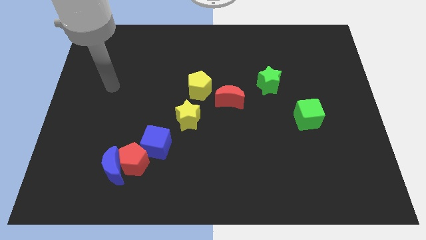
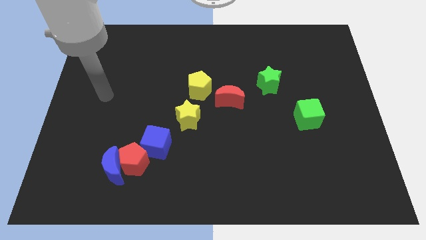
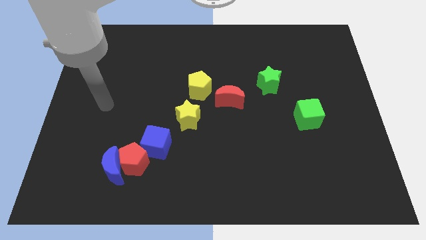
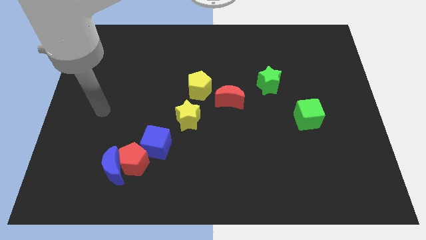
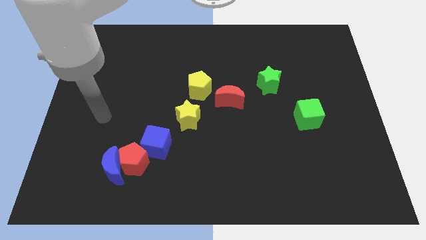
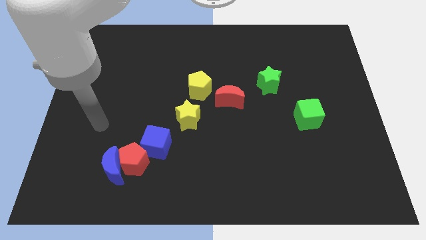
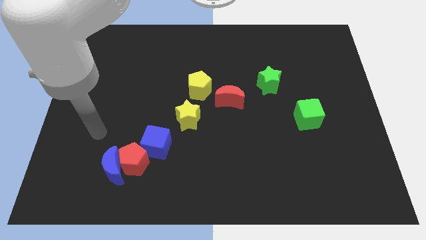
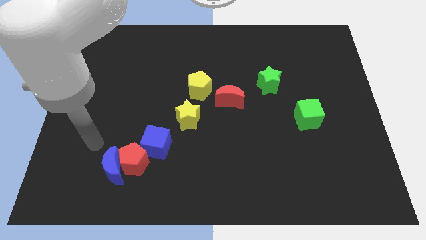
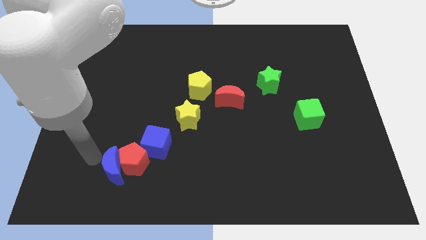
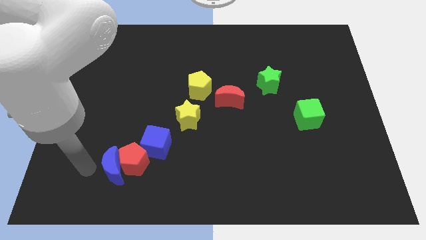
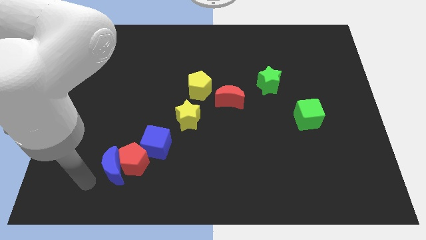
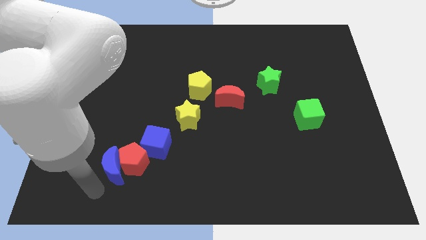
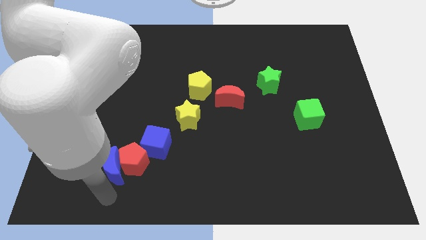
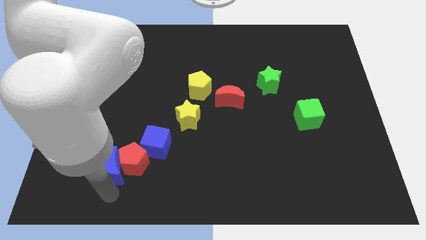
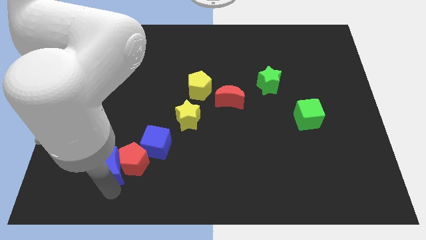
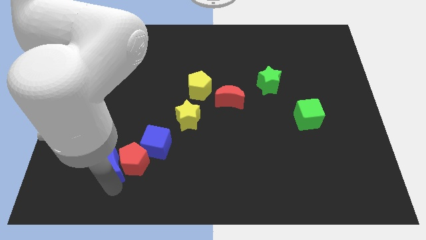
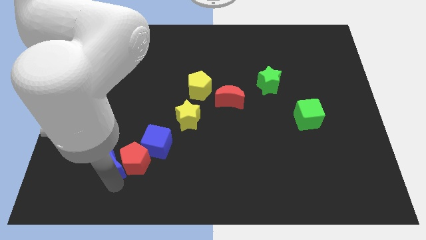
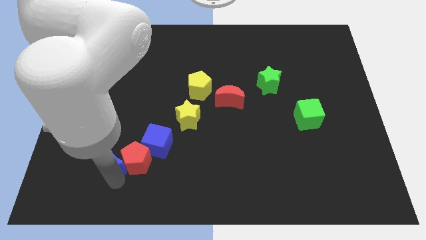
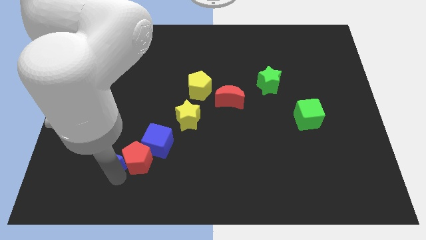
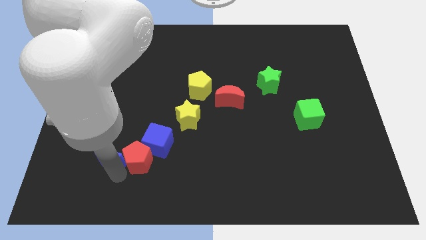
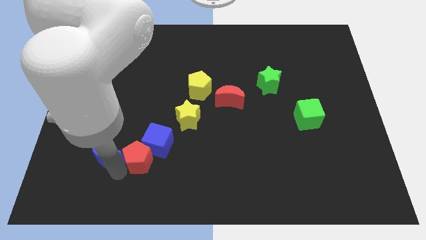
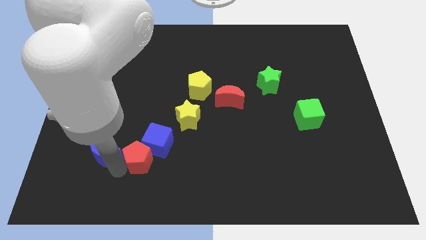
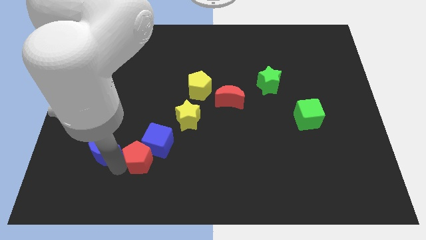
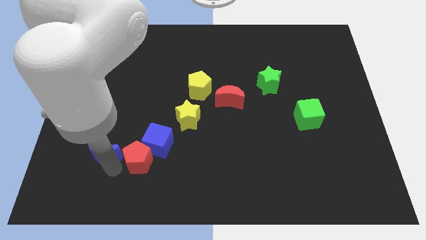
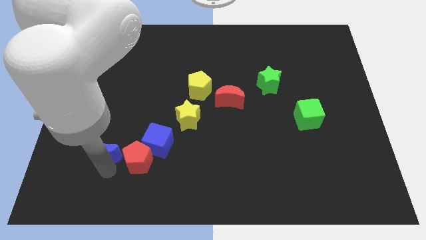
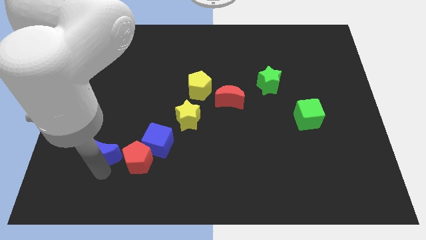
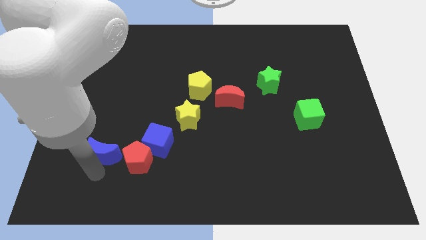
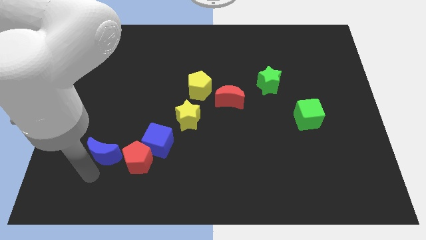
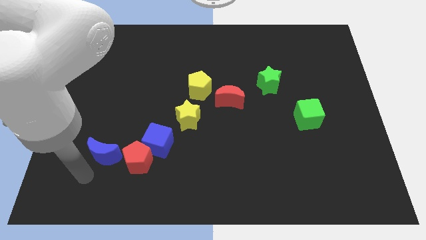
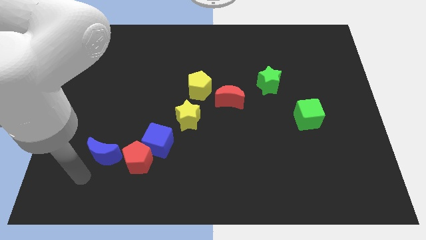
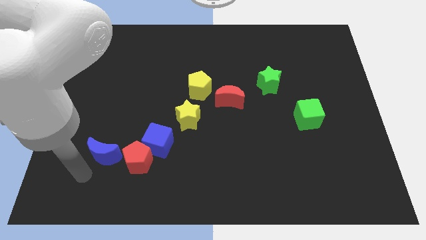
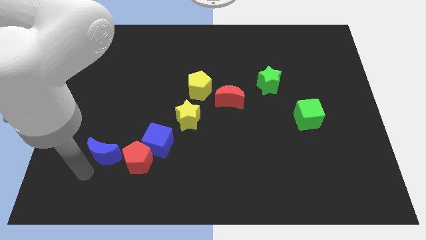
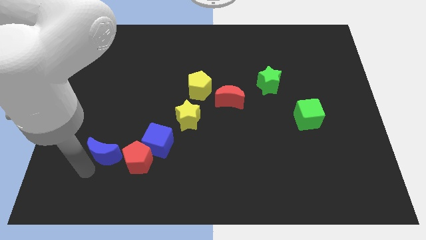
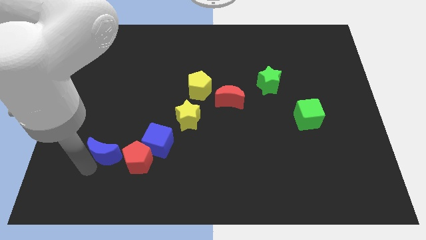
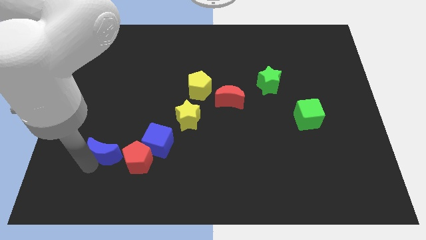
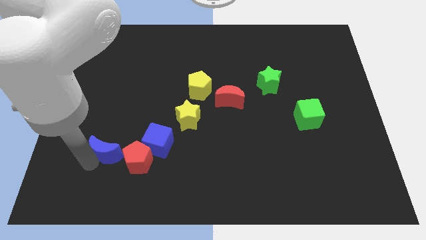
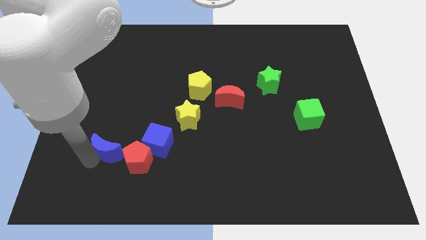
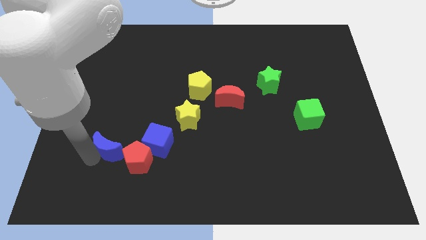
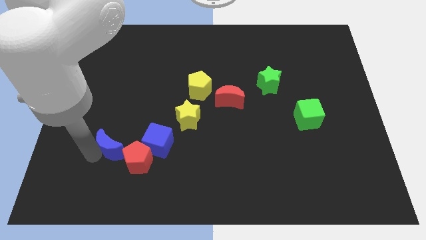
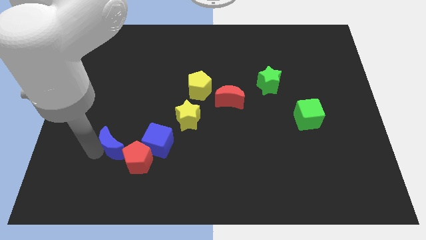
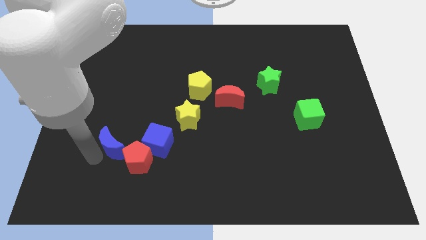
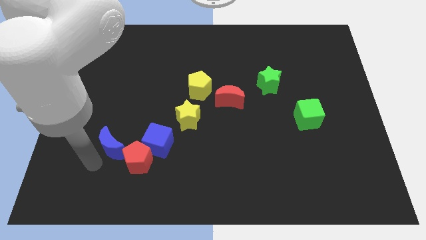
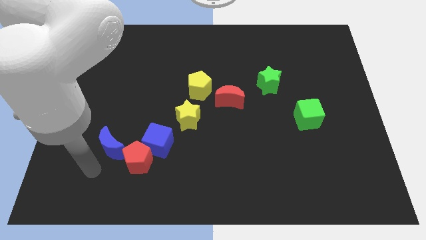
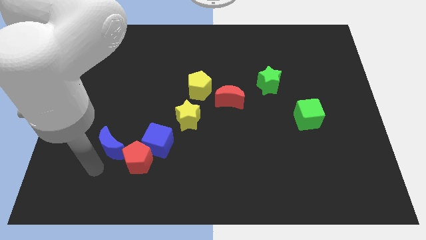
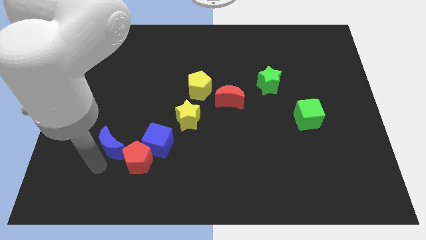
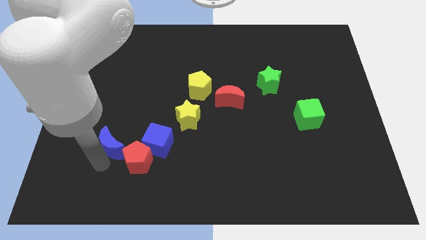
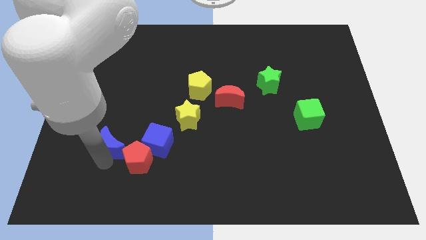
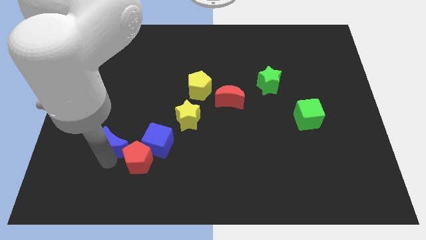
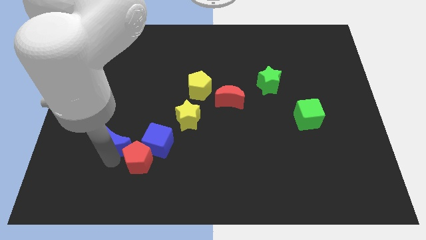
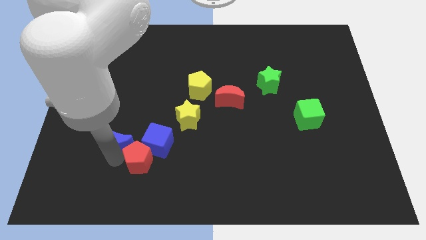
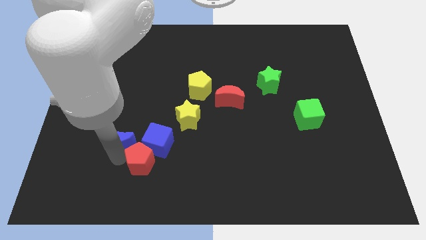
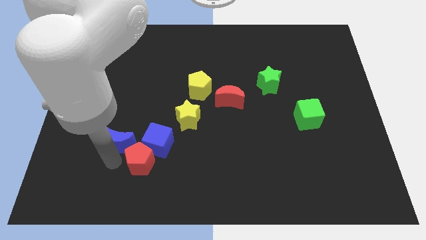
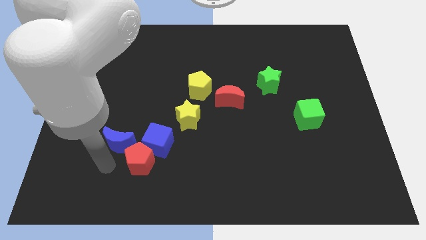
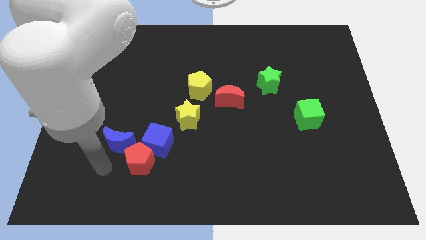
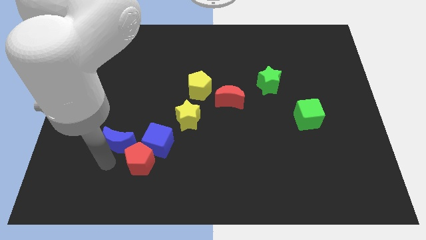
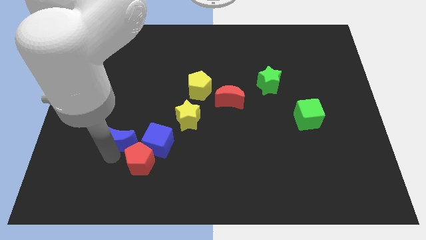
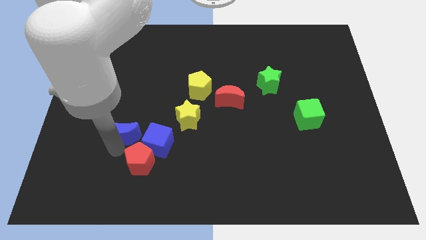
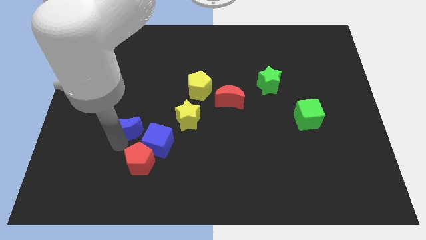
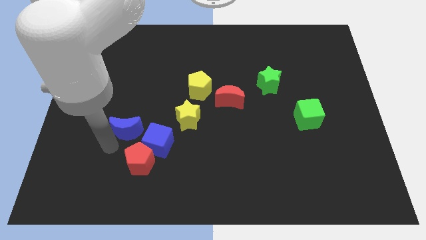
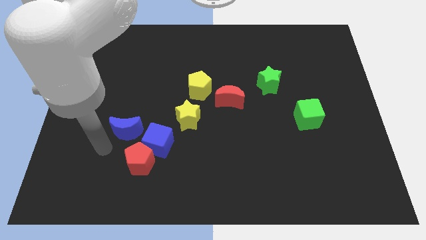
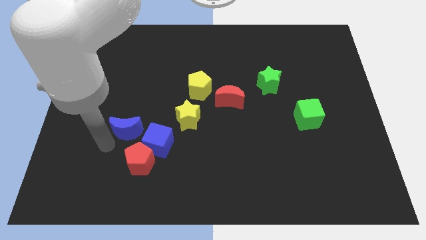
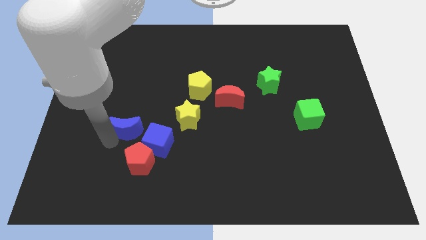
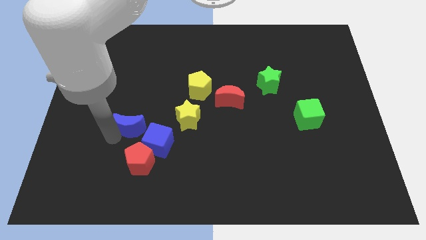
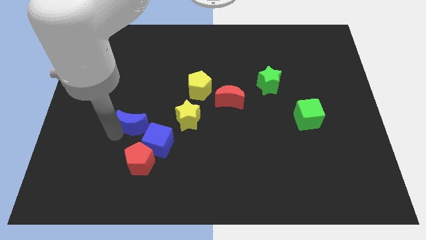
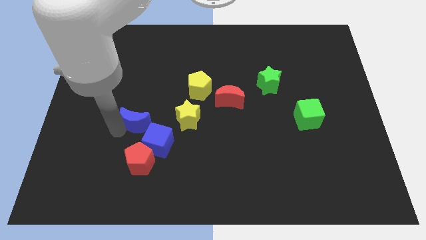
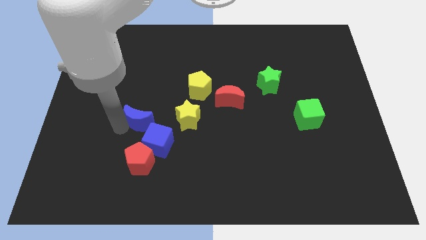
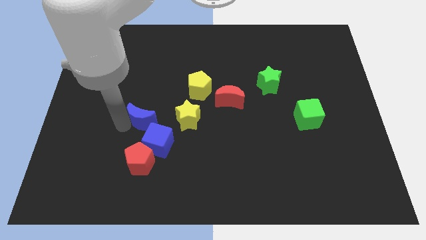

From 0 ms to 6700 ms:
put the blue moon to the top side of the blue cube

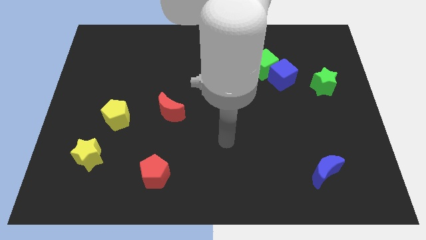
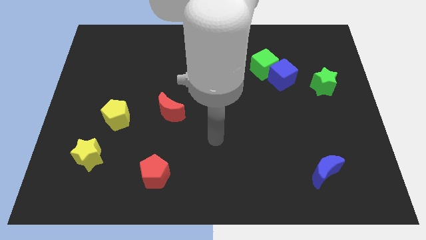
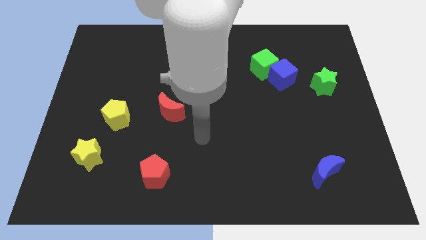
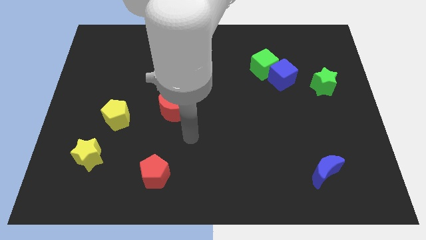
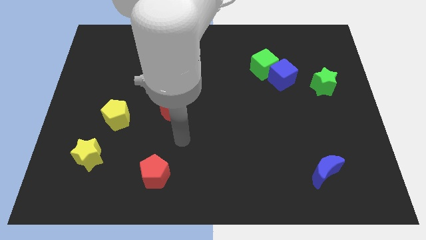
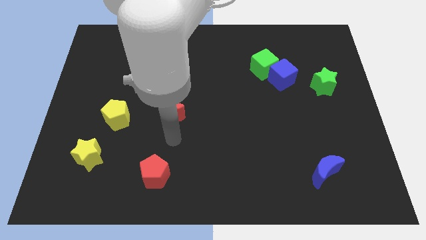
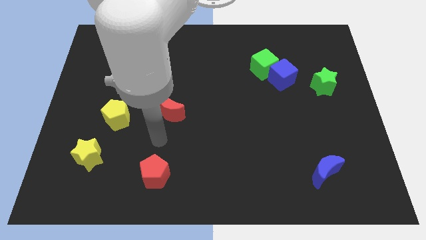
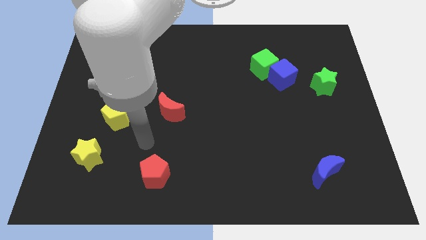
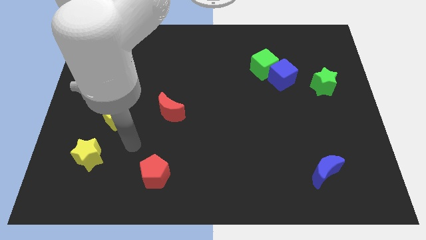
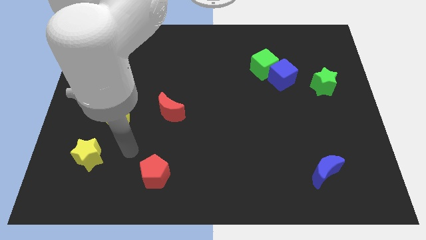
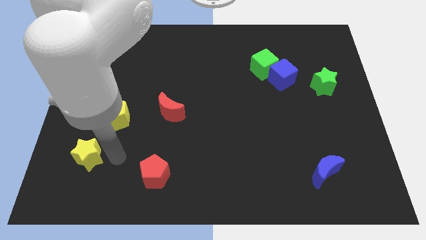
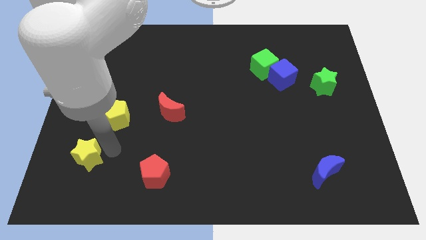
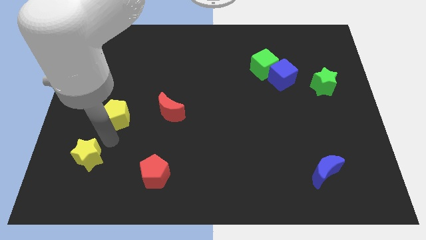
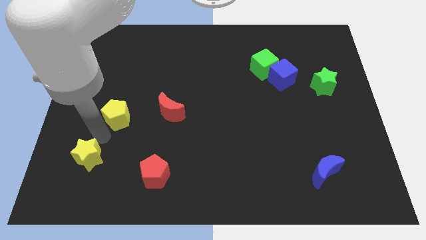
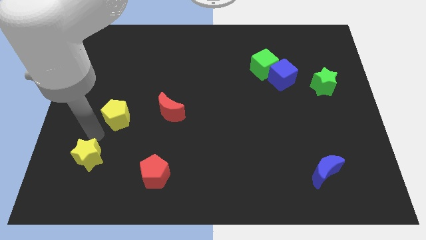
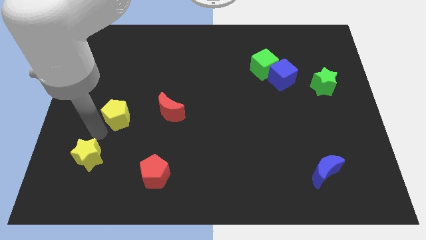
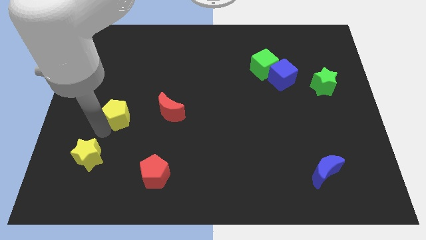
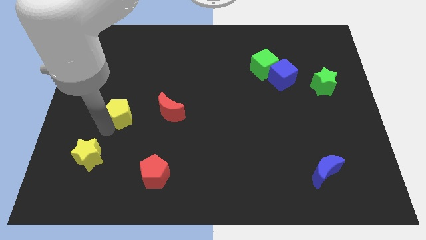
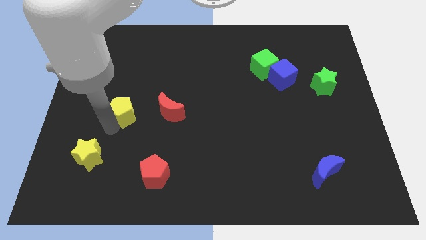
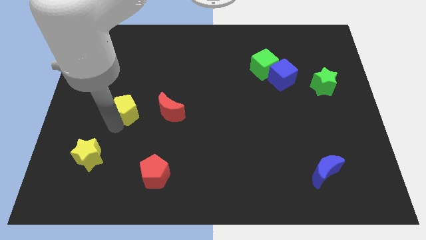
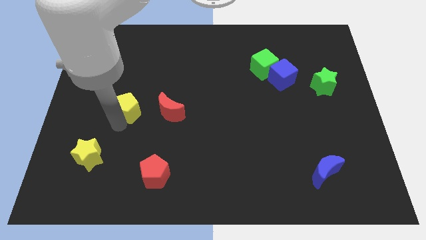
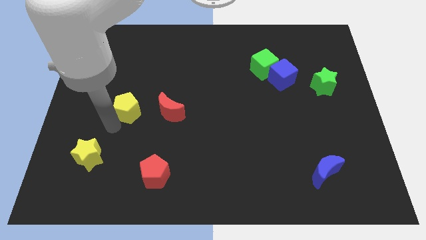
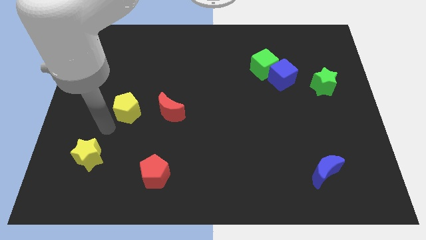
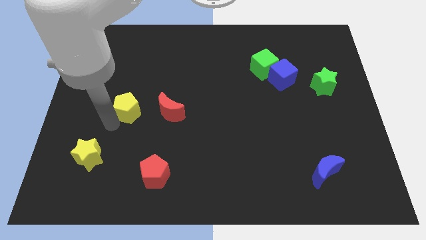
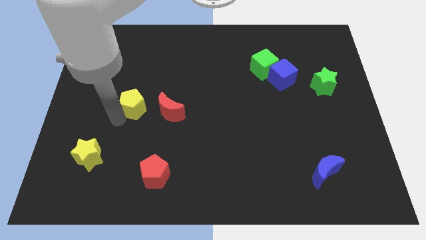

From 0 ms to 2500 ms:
push the yellow pentagon to the top left side of the red moon
